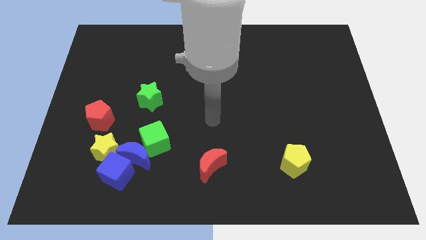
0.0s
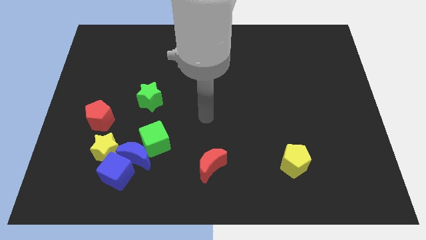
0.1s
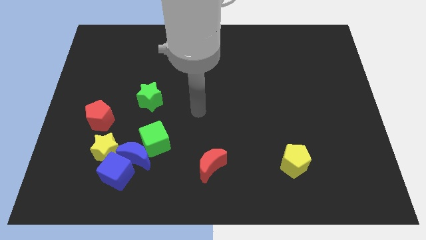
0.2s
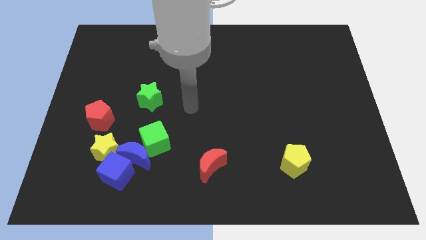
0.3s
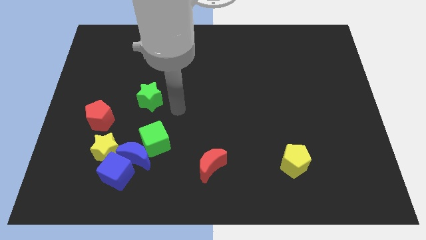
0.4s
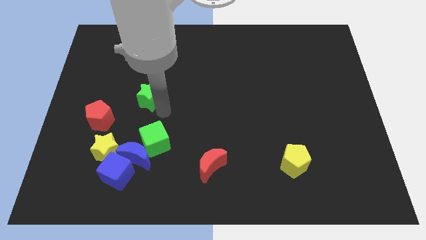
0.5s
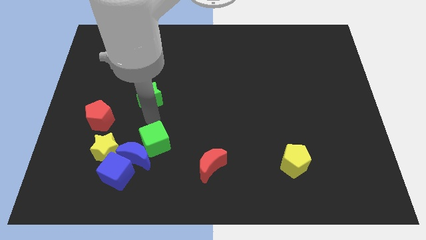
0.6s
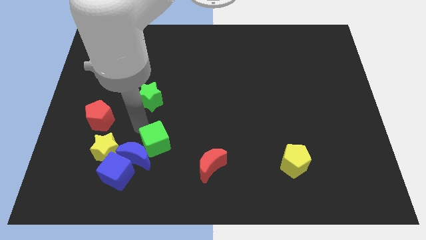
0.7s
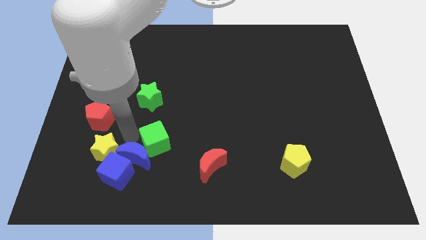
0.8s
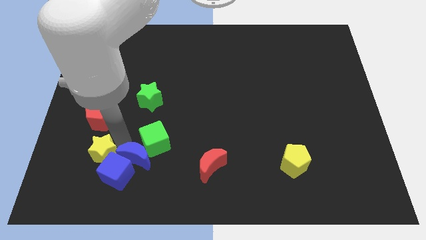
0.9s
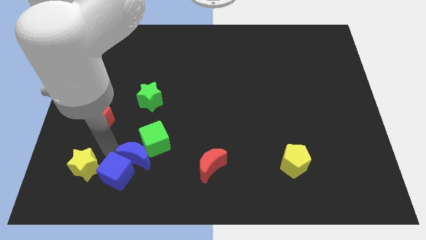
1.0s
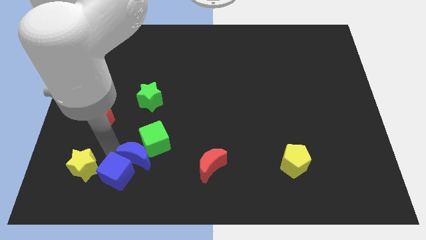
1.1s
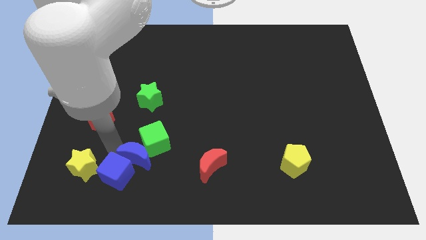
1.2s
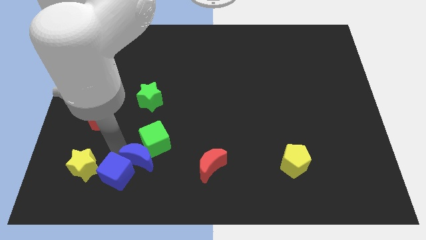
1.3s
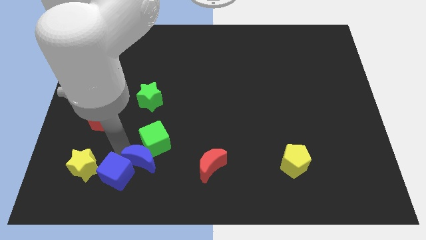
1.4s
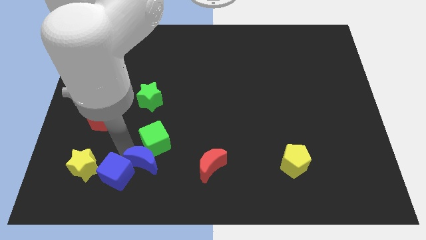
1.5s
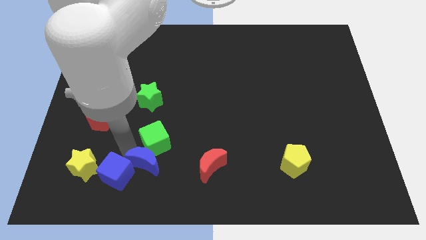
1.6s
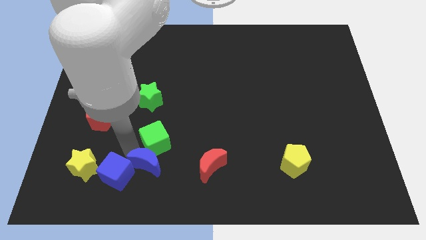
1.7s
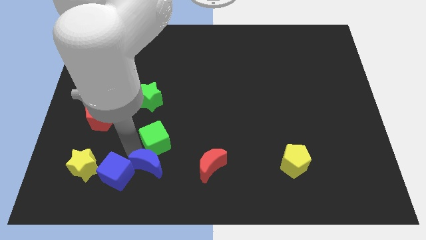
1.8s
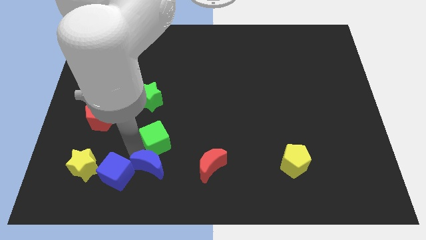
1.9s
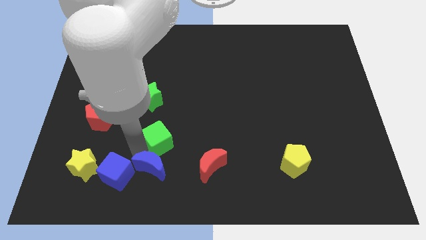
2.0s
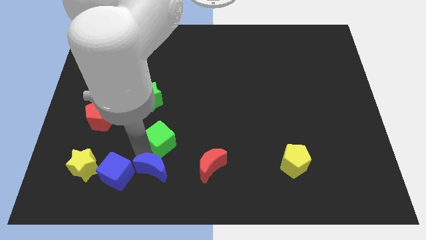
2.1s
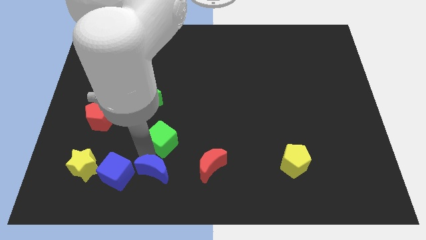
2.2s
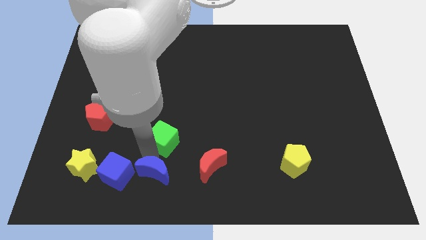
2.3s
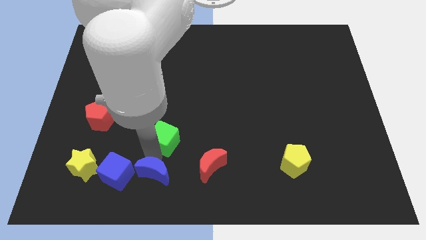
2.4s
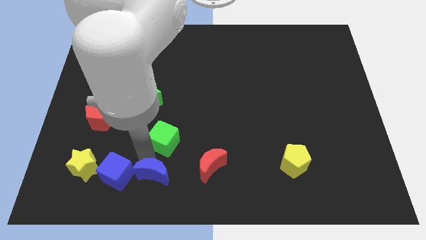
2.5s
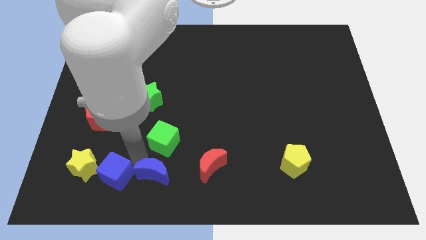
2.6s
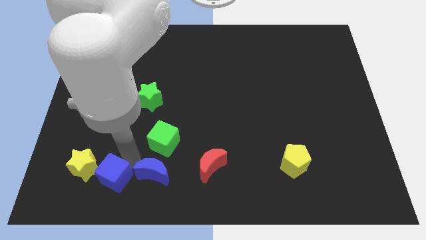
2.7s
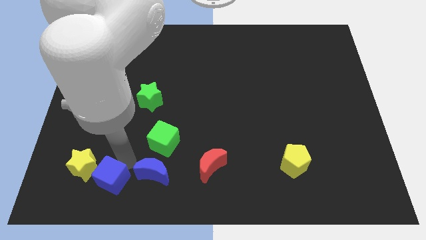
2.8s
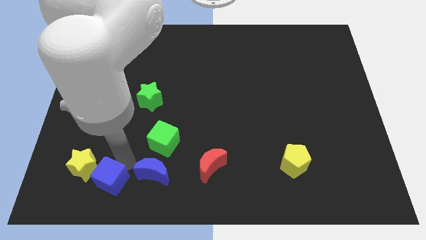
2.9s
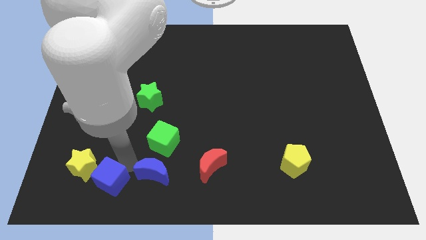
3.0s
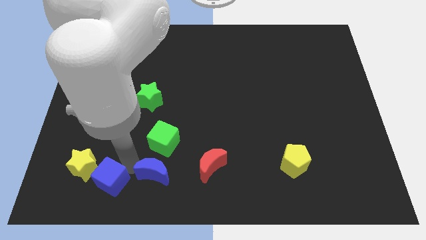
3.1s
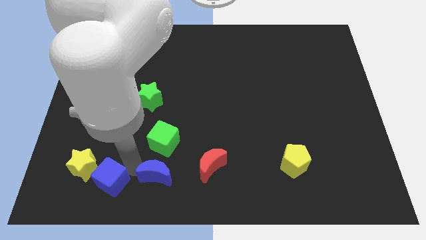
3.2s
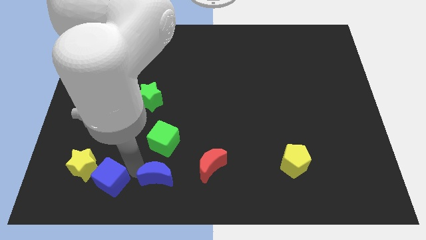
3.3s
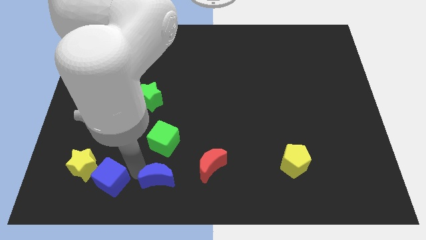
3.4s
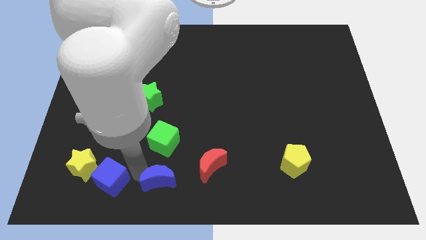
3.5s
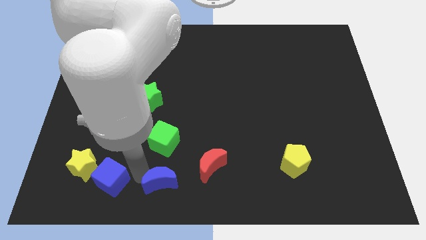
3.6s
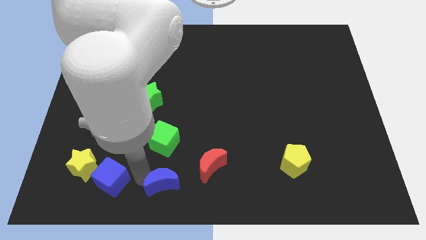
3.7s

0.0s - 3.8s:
pull the blue moon apart from the blue cube, green cube, and yellow star

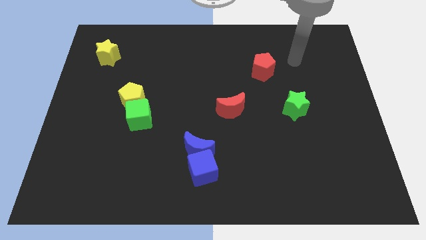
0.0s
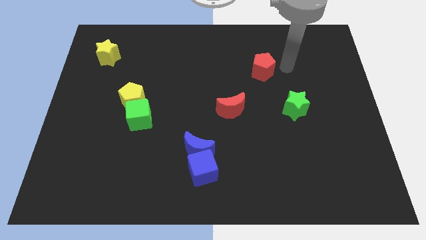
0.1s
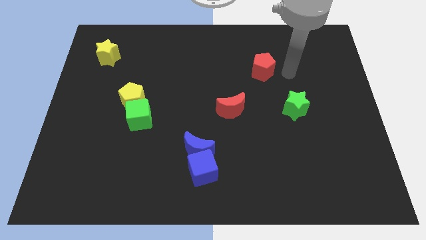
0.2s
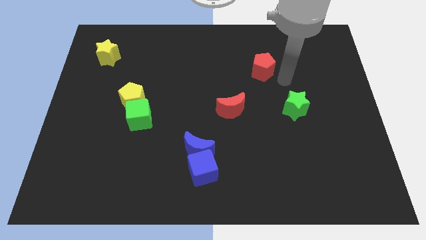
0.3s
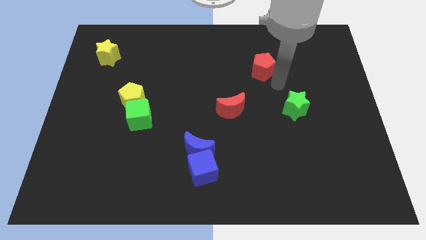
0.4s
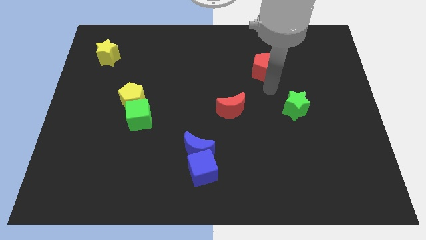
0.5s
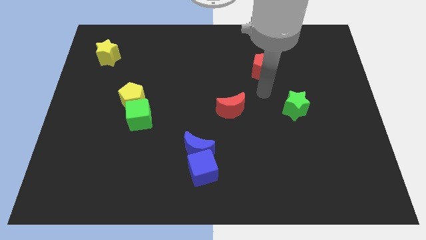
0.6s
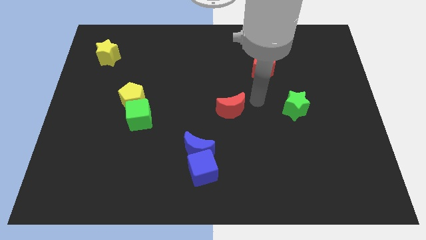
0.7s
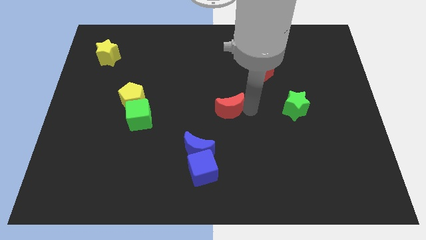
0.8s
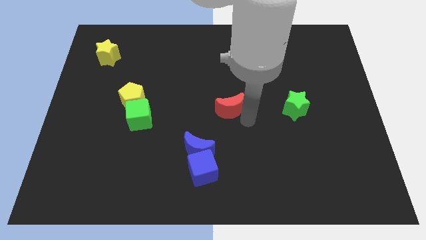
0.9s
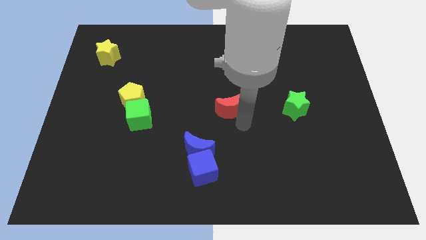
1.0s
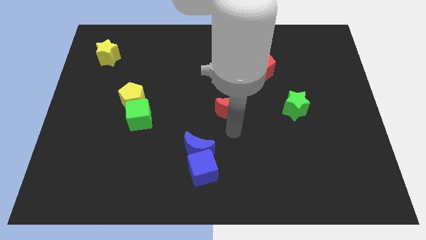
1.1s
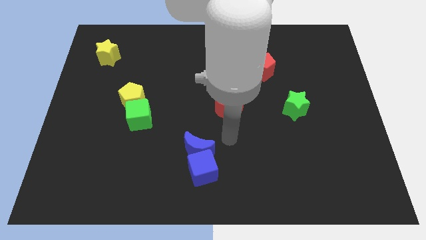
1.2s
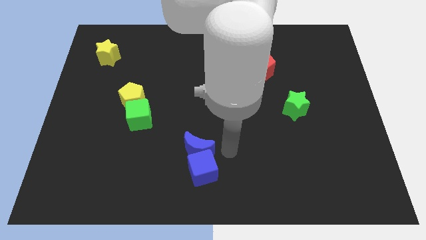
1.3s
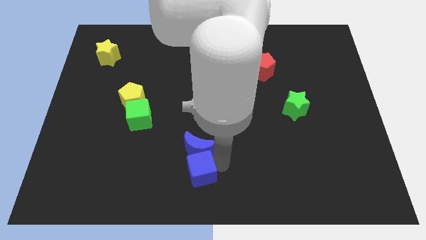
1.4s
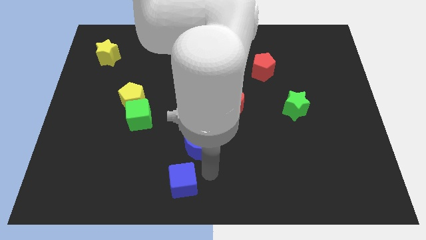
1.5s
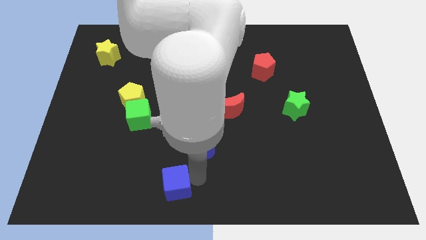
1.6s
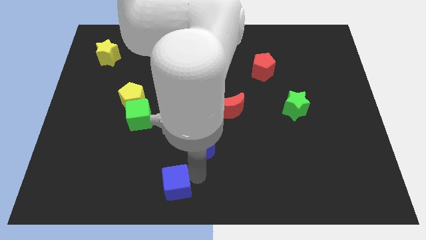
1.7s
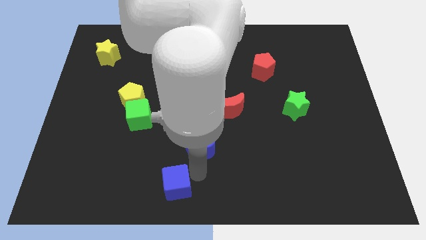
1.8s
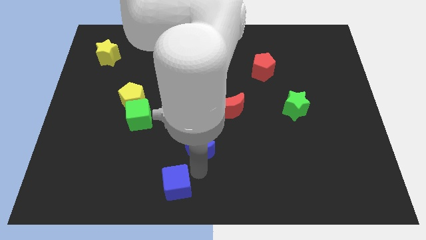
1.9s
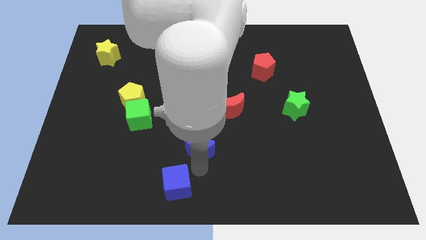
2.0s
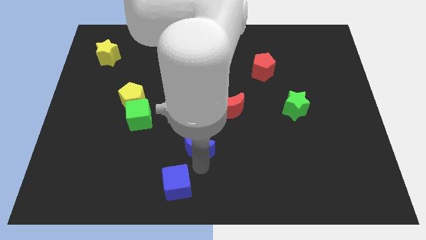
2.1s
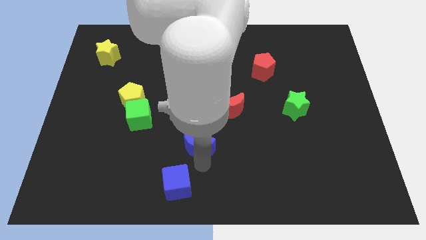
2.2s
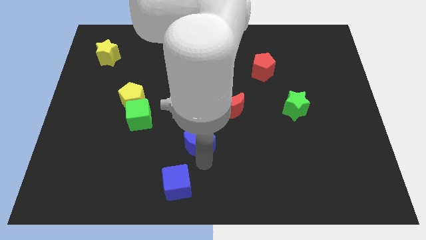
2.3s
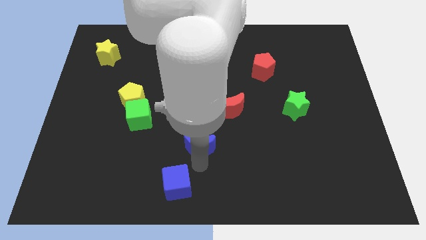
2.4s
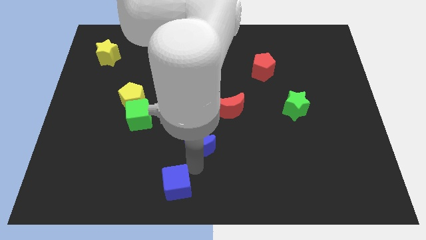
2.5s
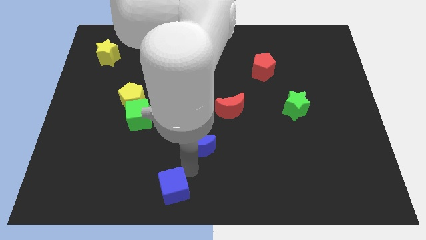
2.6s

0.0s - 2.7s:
separate the blue moon from the blue cube

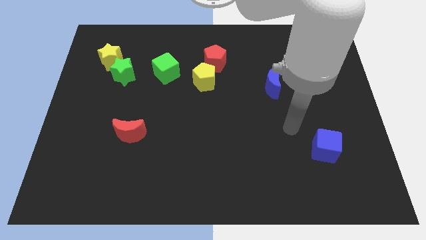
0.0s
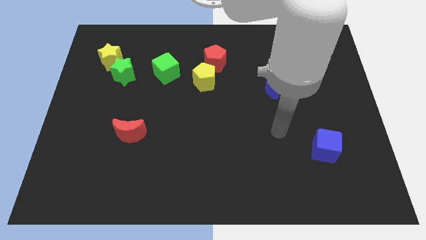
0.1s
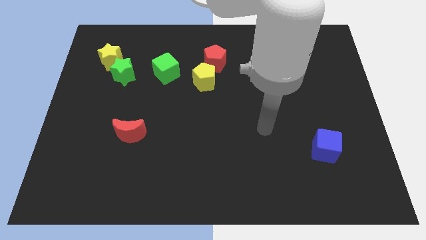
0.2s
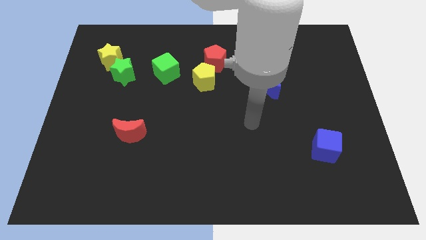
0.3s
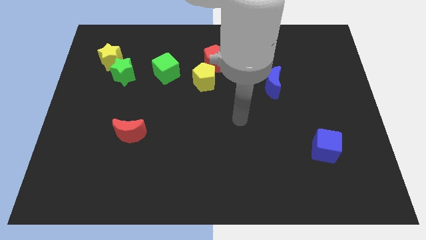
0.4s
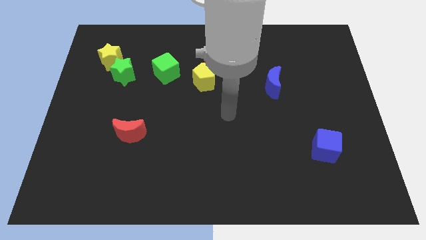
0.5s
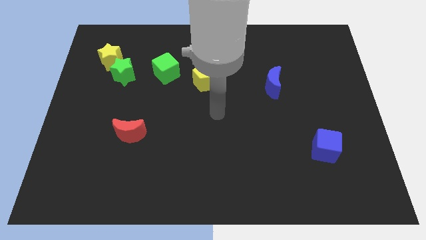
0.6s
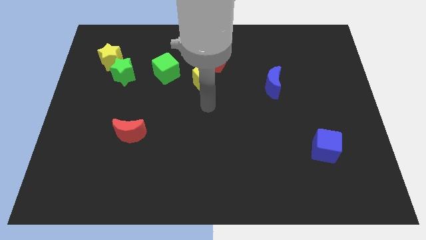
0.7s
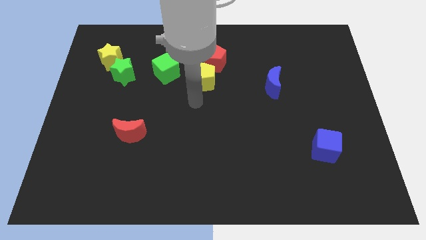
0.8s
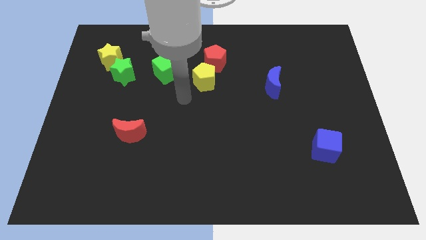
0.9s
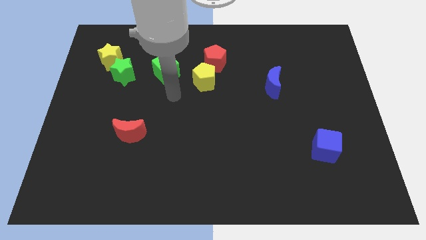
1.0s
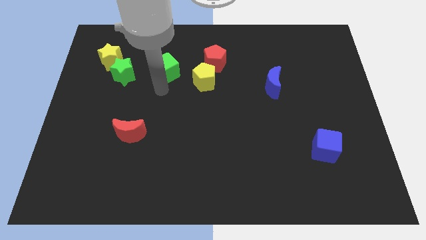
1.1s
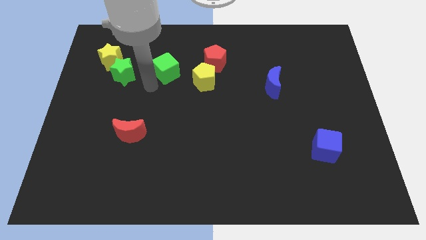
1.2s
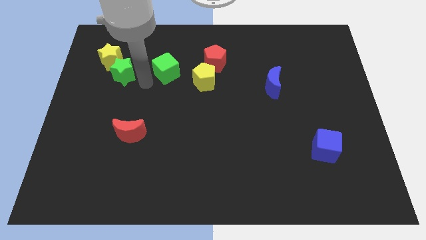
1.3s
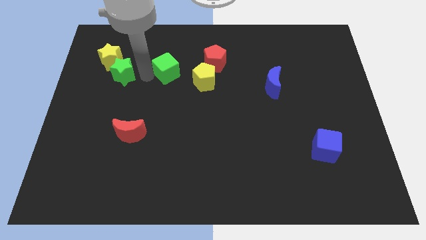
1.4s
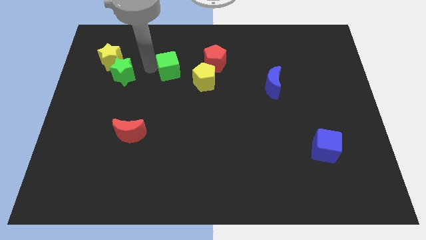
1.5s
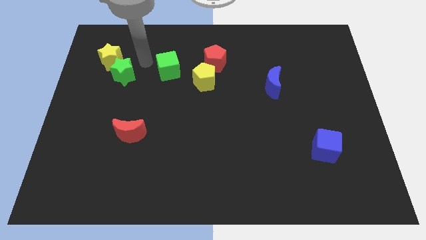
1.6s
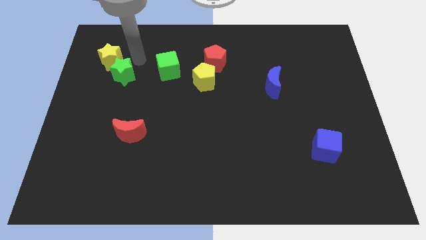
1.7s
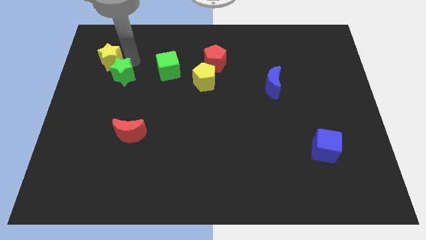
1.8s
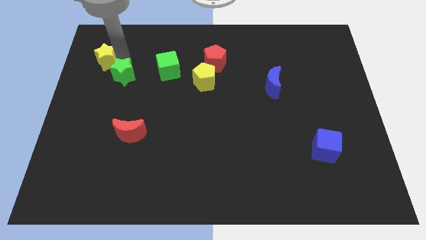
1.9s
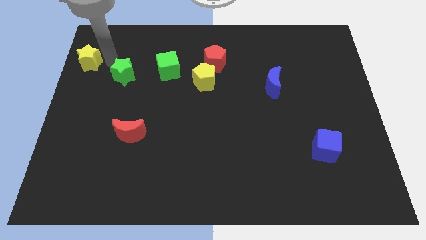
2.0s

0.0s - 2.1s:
separate the green star from the yellow star

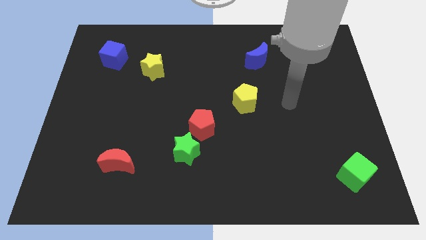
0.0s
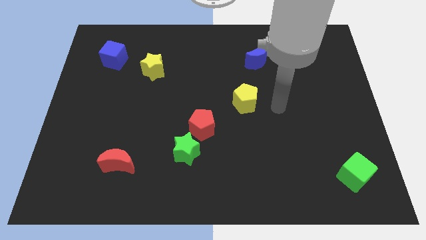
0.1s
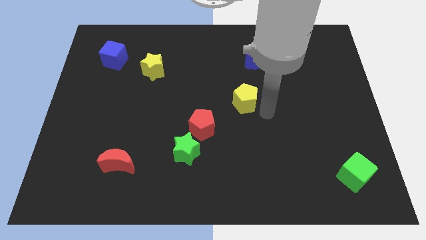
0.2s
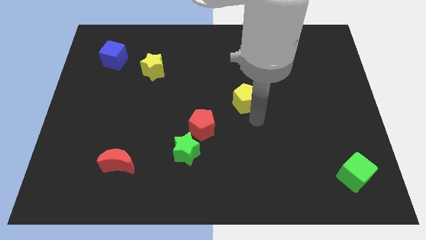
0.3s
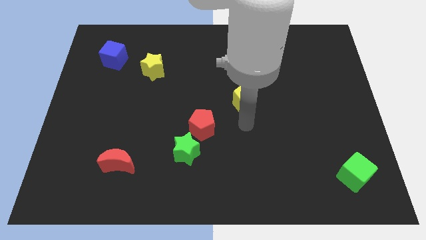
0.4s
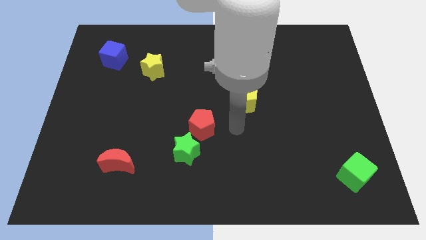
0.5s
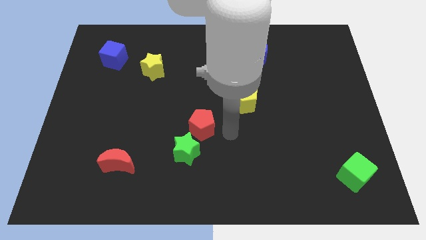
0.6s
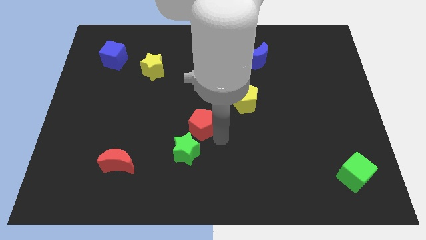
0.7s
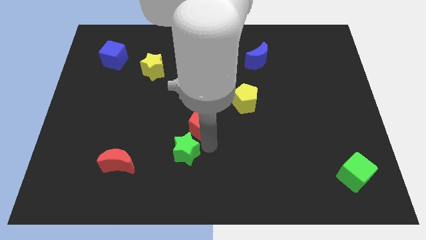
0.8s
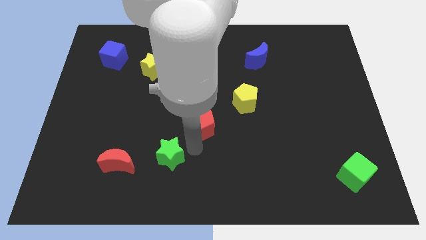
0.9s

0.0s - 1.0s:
move the red pentagon away from the green star

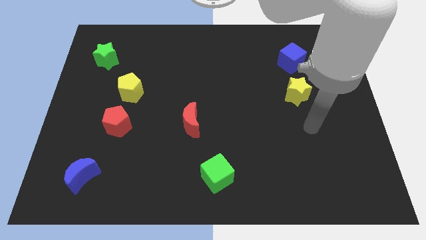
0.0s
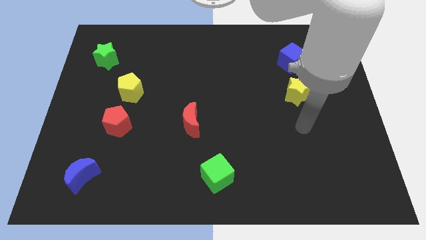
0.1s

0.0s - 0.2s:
pull the red pentagon apart from the yellow pentagon
